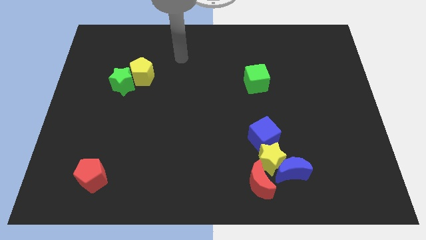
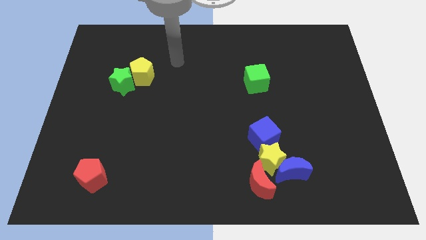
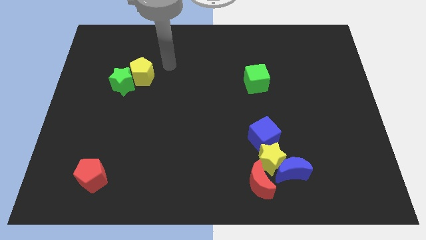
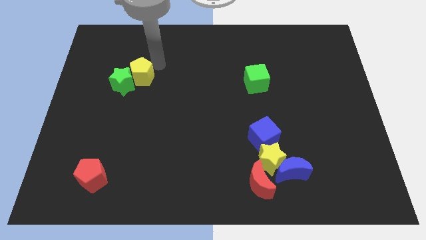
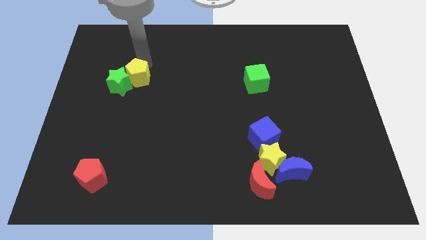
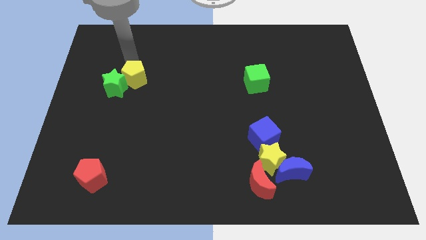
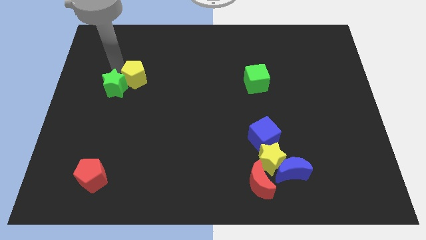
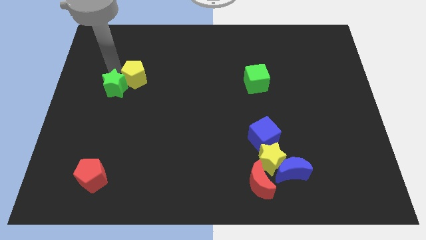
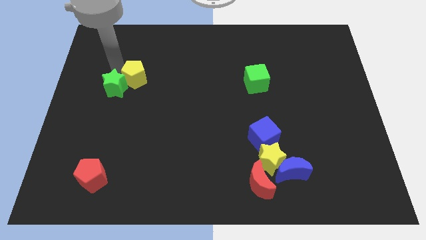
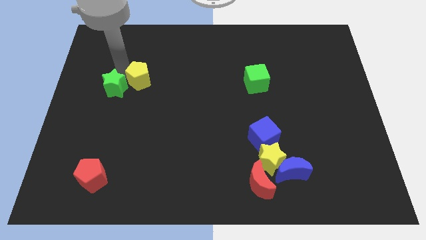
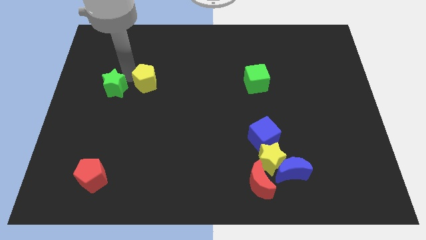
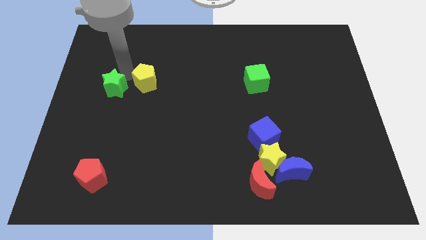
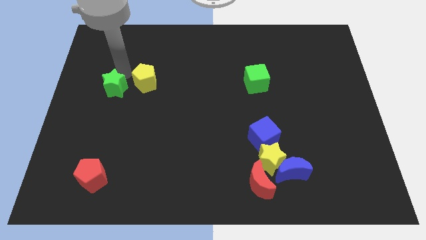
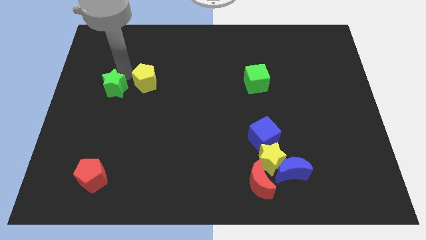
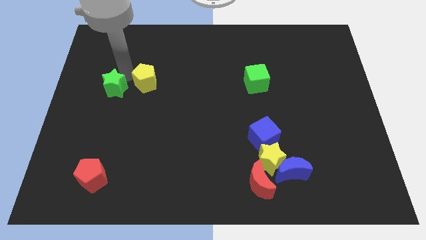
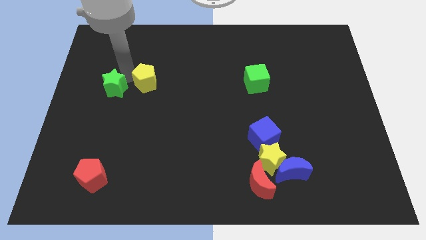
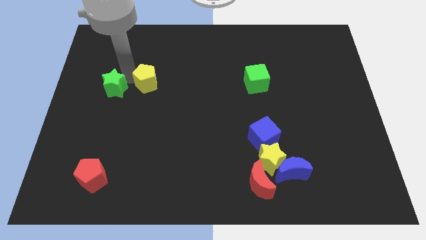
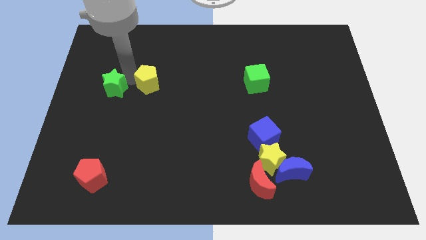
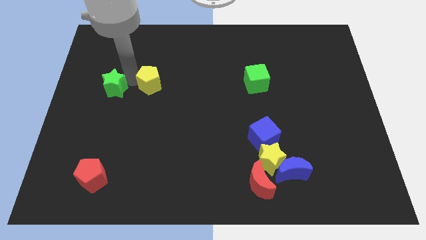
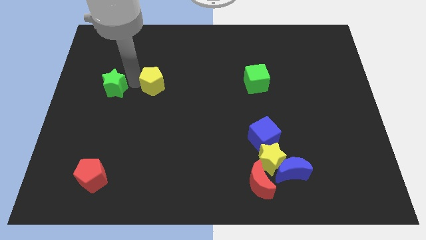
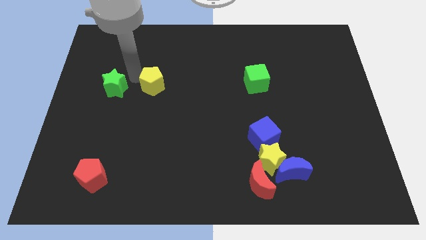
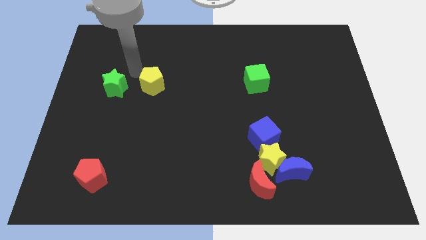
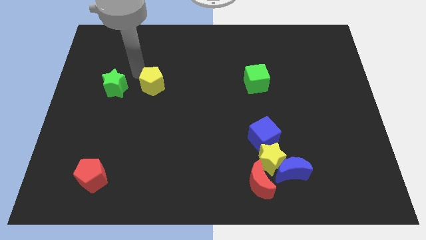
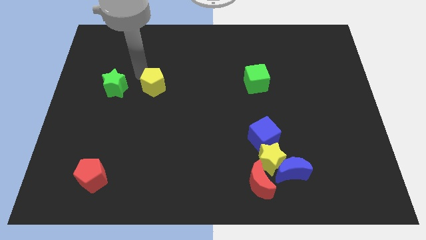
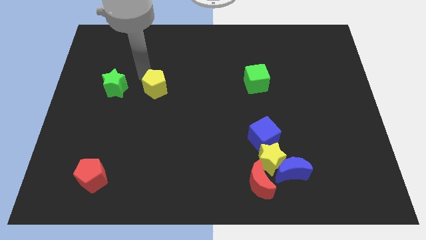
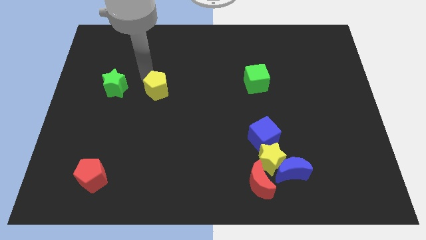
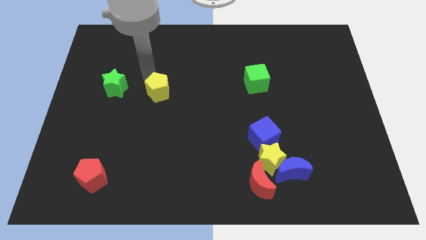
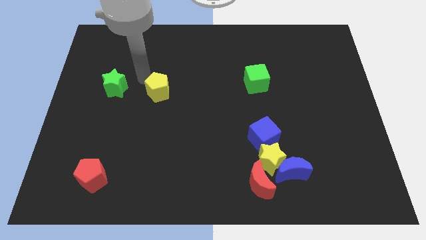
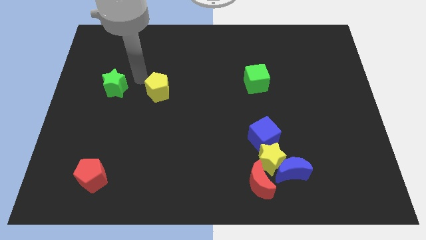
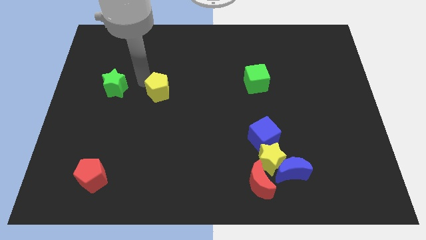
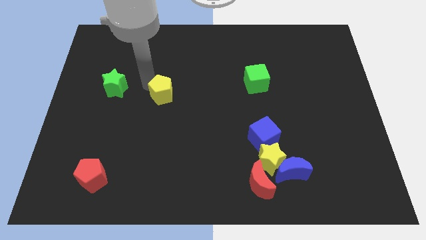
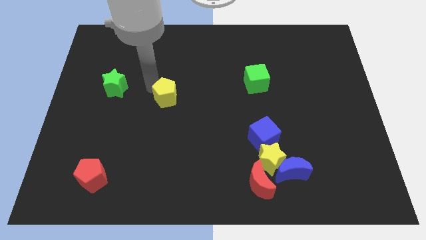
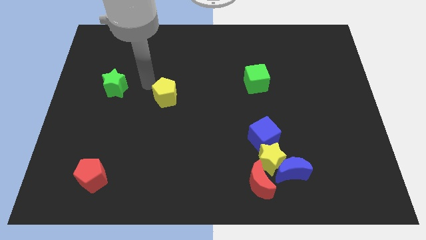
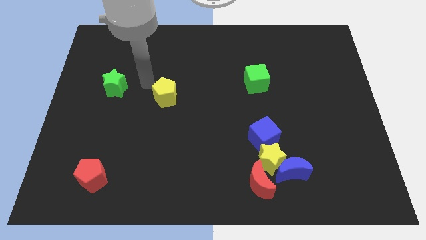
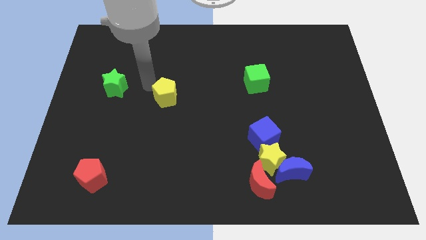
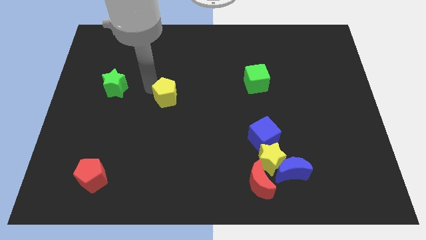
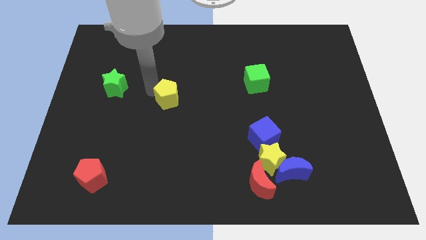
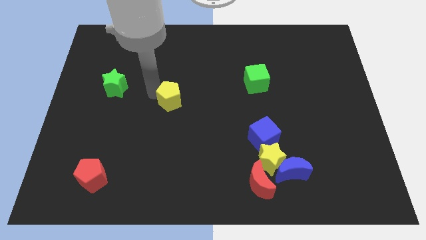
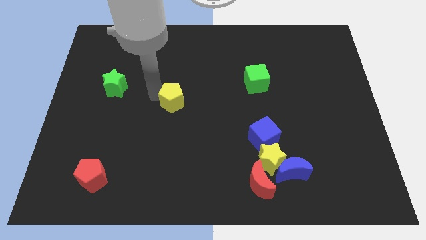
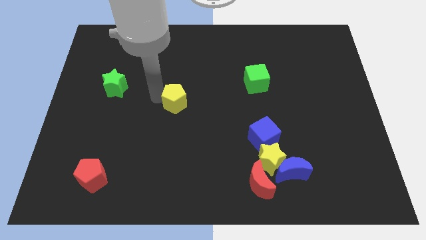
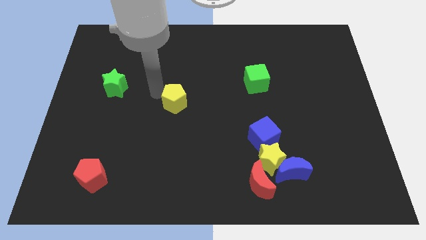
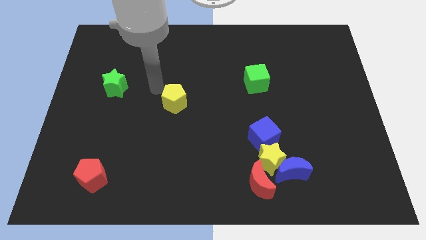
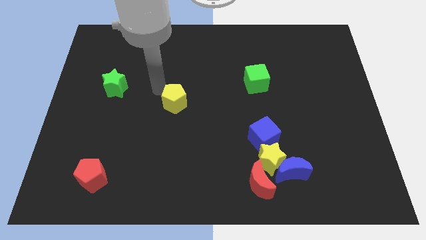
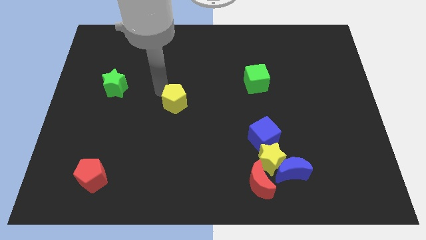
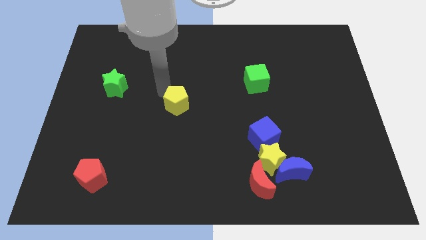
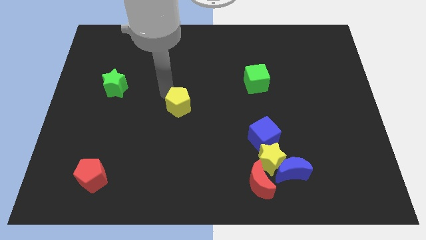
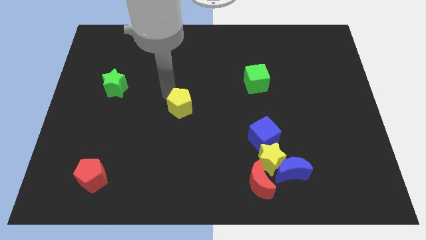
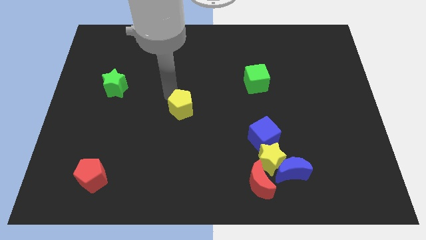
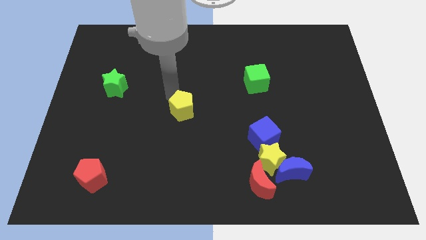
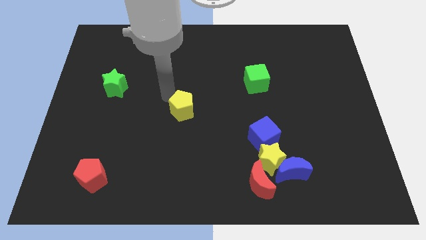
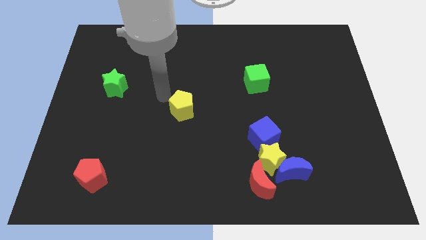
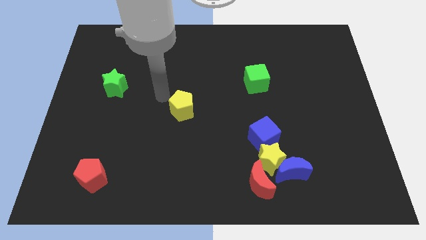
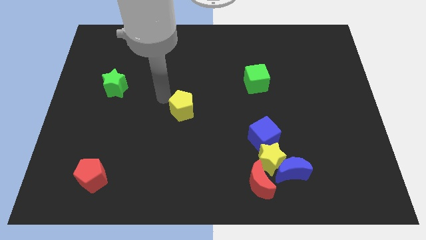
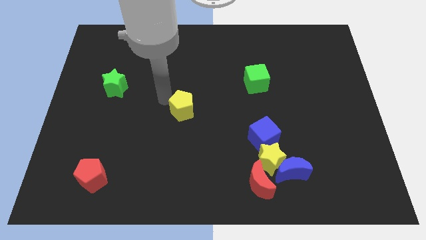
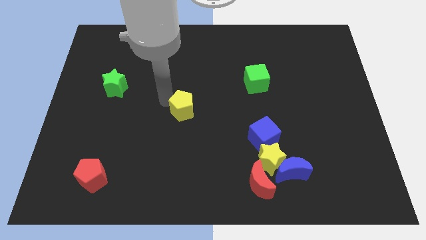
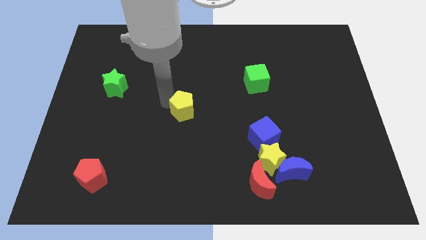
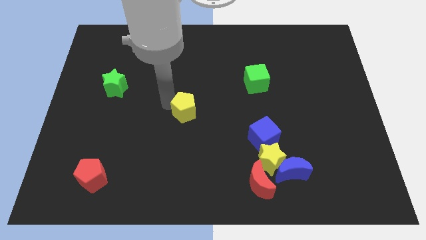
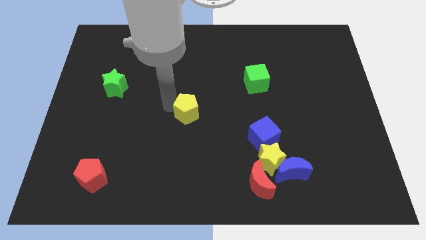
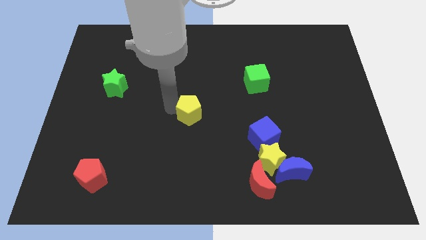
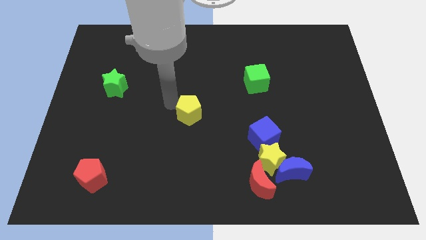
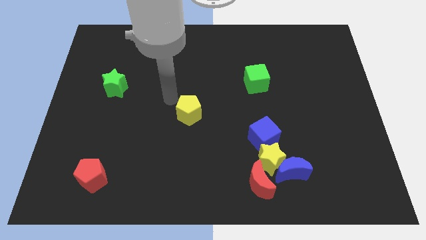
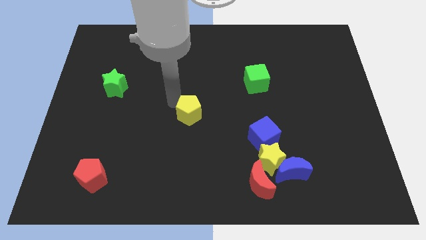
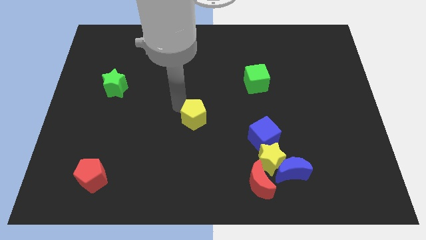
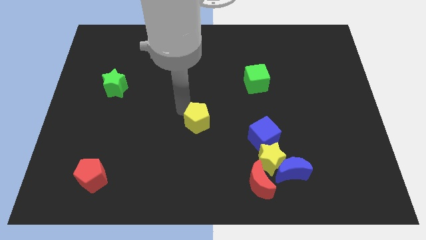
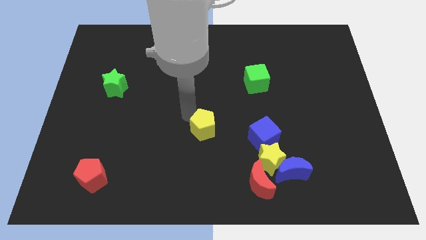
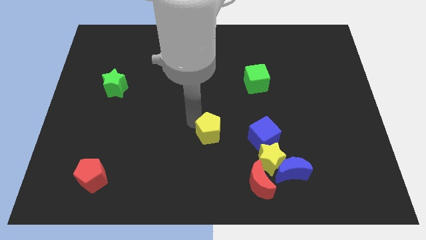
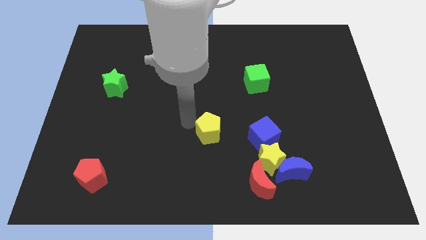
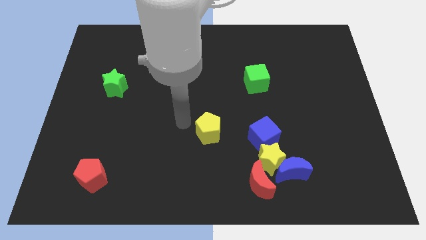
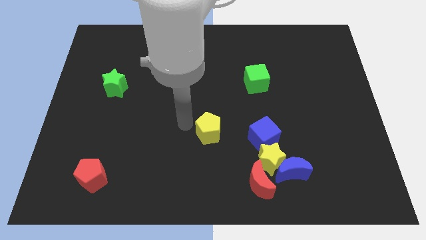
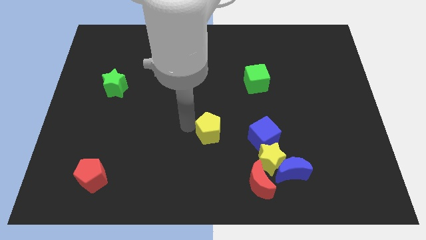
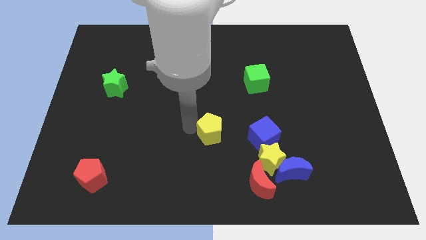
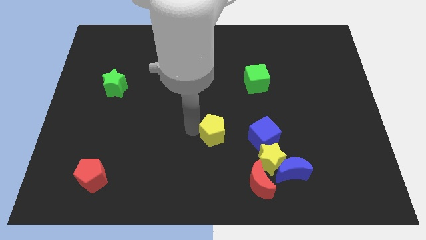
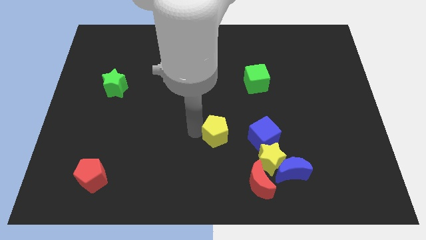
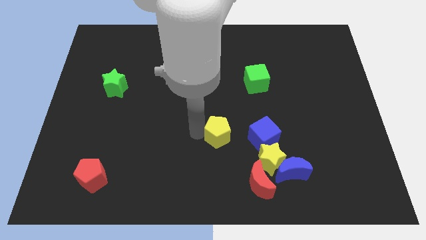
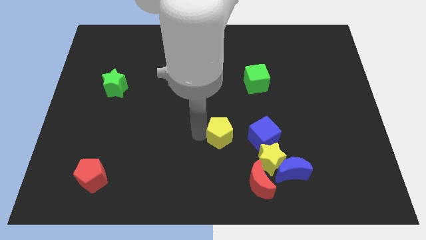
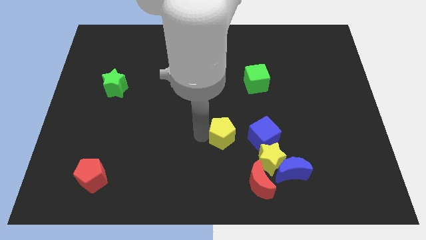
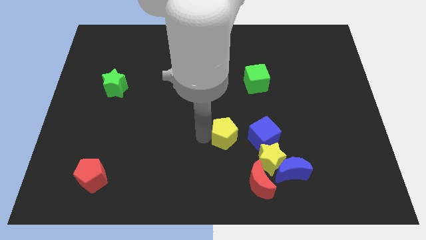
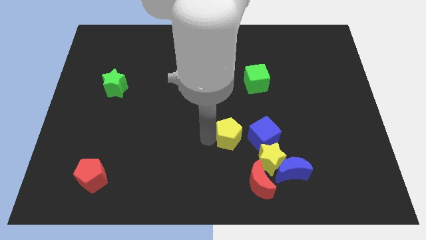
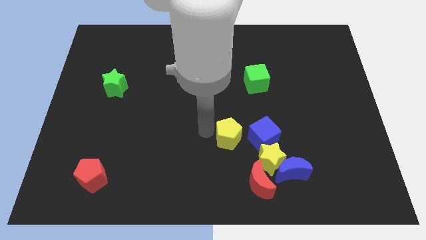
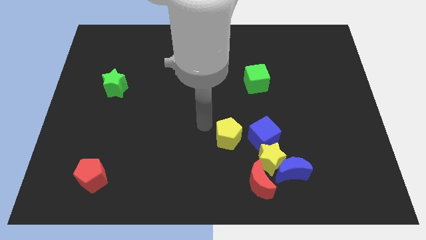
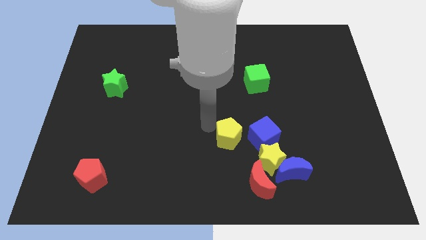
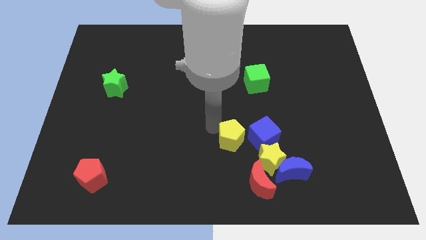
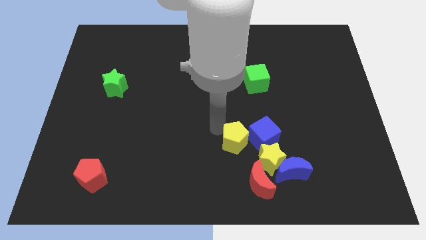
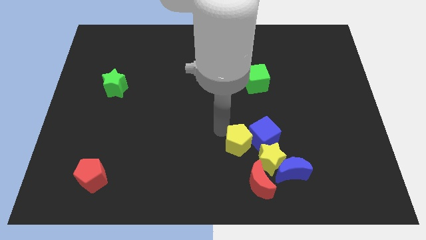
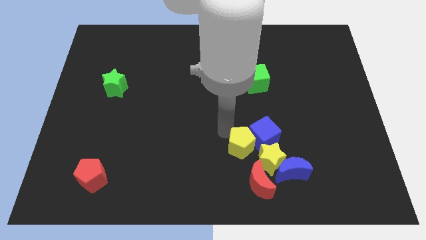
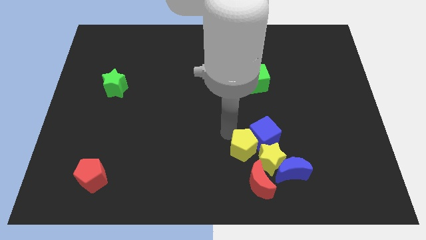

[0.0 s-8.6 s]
move the yellow pentagon towards the yellow star
